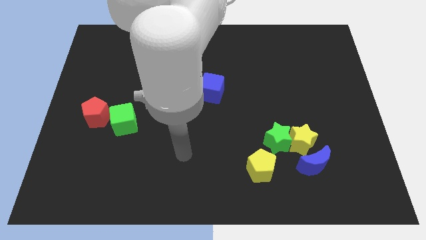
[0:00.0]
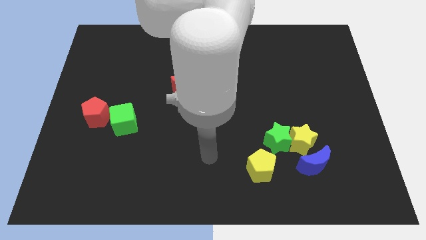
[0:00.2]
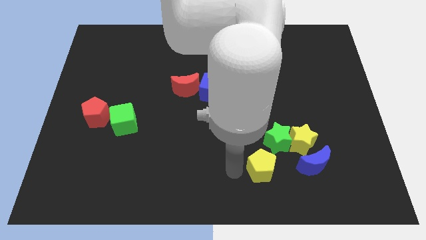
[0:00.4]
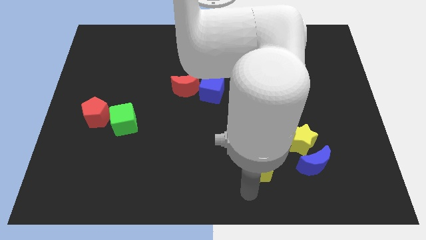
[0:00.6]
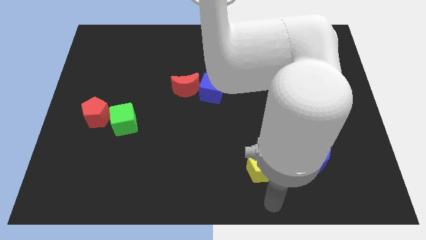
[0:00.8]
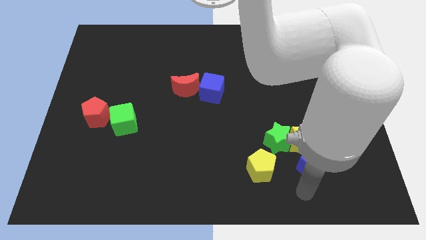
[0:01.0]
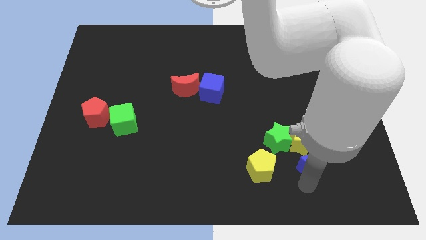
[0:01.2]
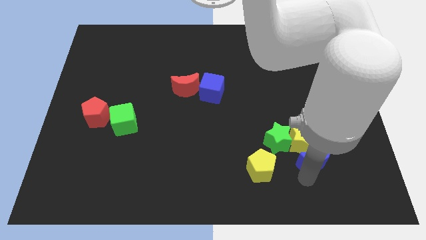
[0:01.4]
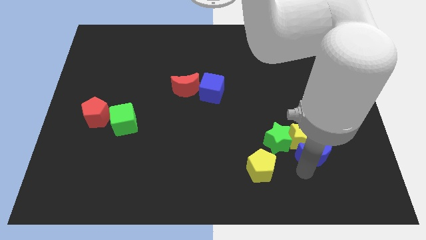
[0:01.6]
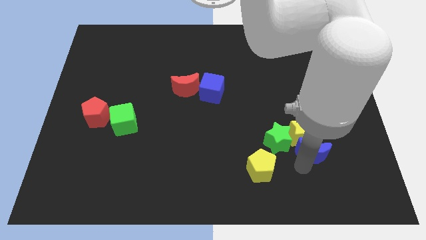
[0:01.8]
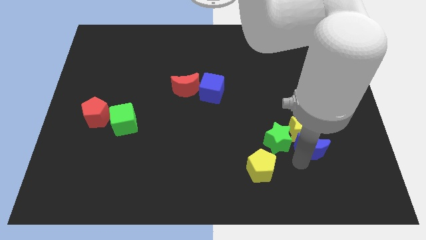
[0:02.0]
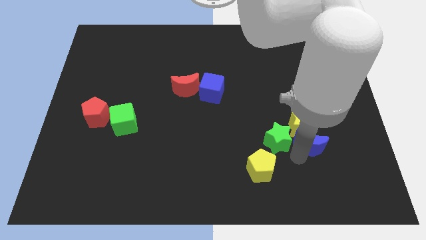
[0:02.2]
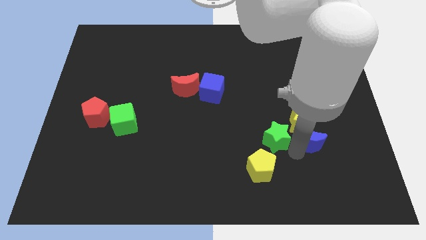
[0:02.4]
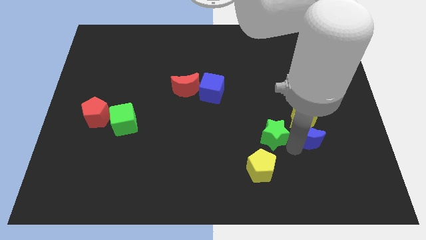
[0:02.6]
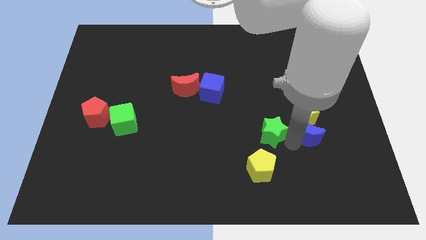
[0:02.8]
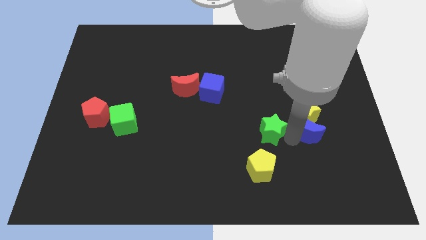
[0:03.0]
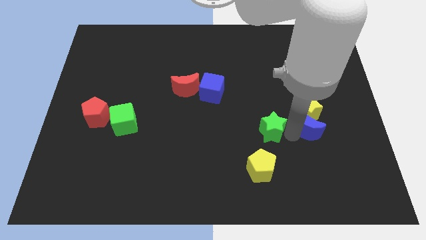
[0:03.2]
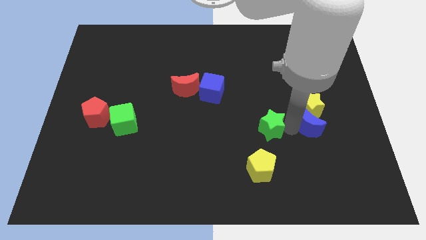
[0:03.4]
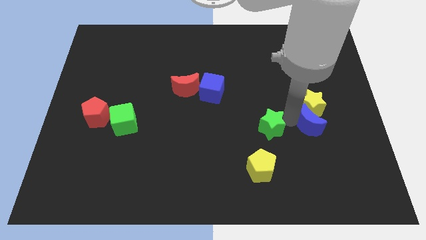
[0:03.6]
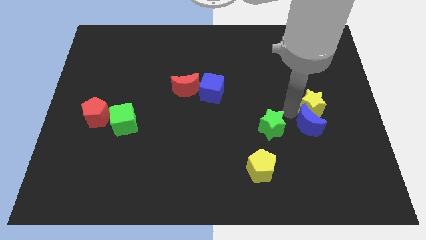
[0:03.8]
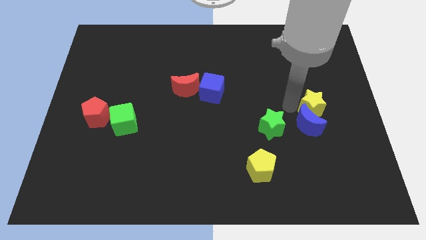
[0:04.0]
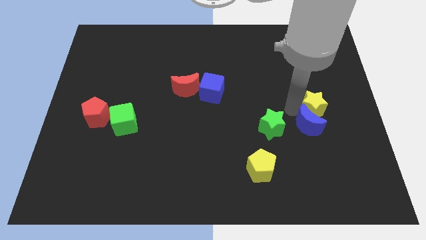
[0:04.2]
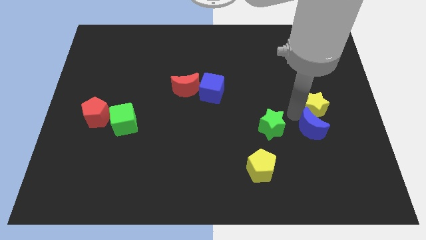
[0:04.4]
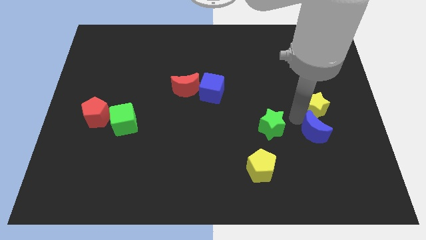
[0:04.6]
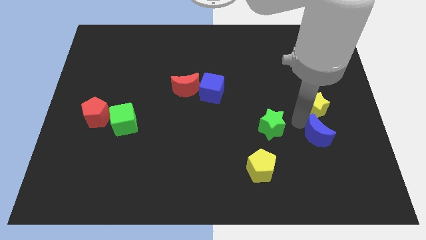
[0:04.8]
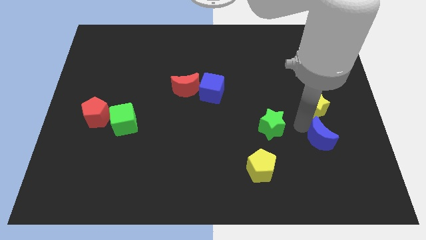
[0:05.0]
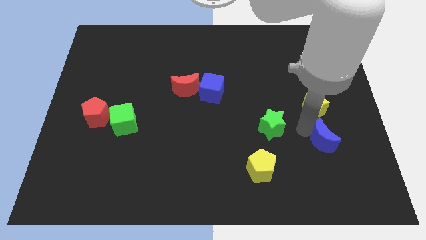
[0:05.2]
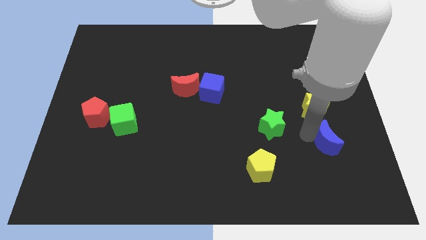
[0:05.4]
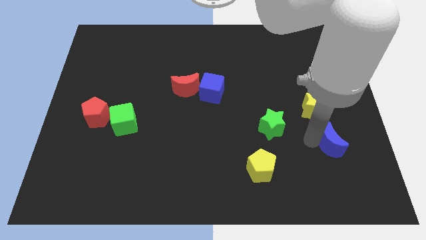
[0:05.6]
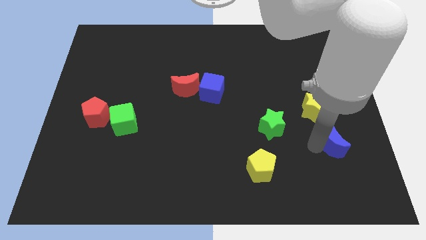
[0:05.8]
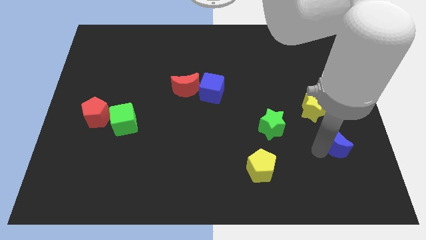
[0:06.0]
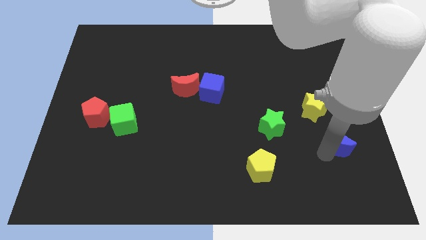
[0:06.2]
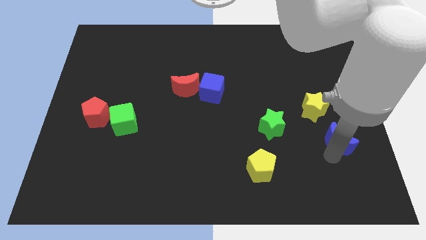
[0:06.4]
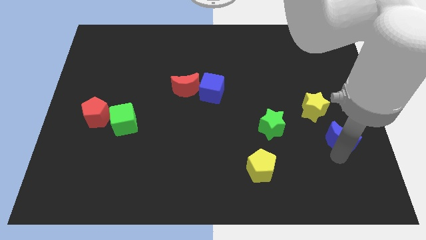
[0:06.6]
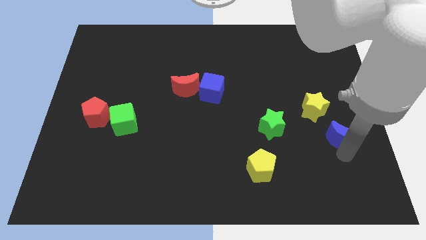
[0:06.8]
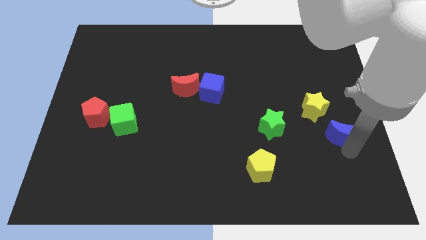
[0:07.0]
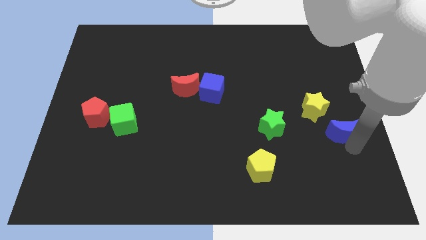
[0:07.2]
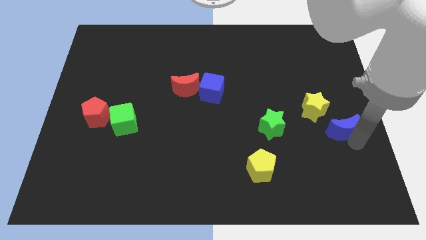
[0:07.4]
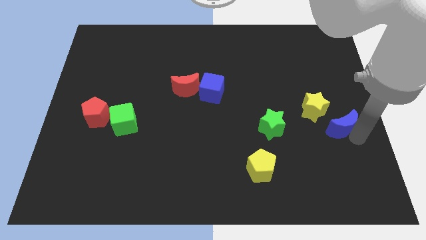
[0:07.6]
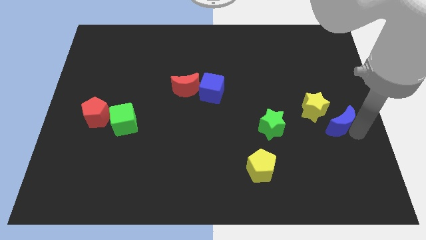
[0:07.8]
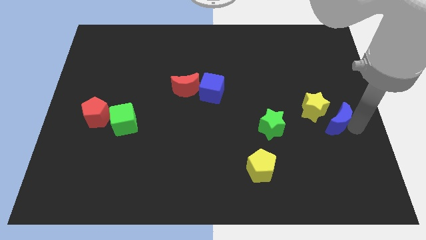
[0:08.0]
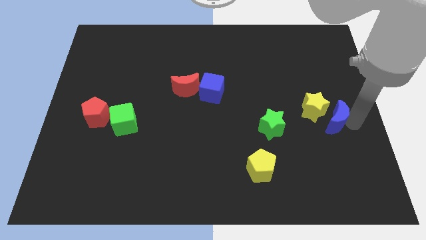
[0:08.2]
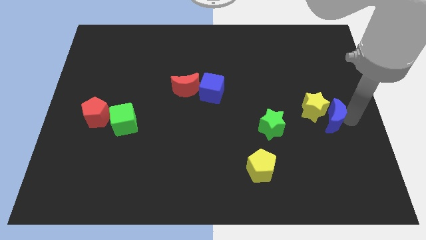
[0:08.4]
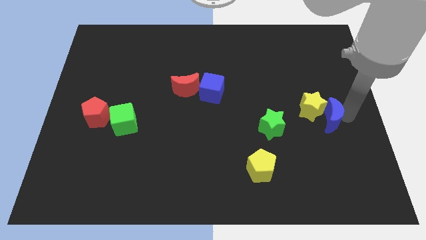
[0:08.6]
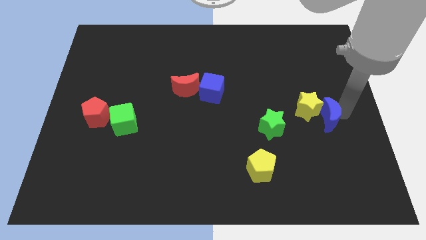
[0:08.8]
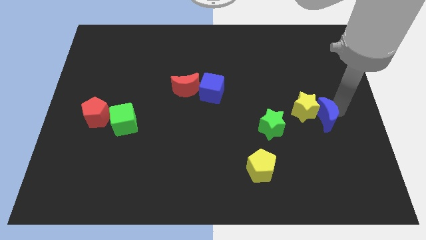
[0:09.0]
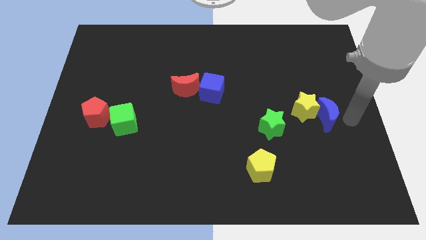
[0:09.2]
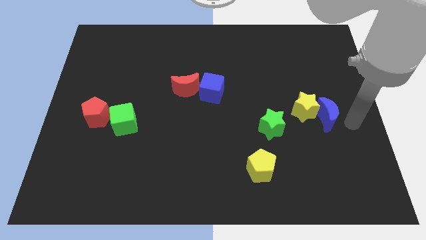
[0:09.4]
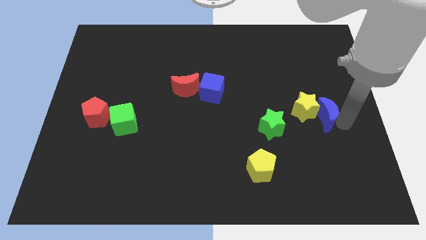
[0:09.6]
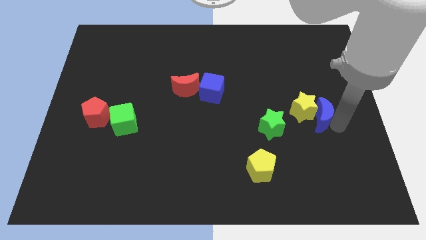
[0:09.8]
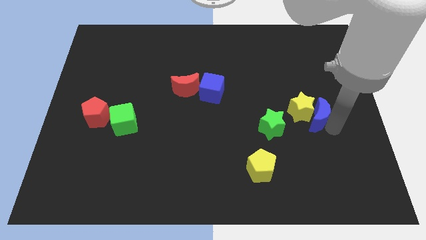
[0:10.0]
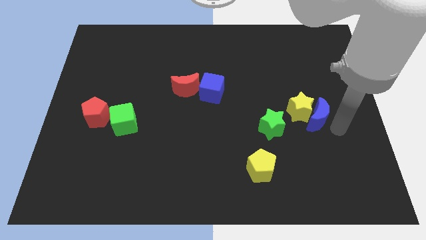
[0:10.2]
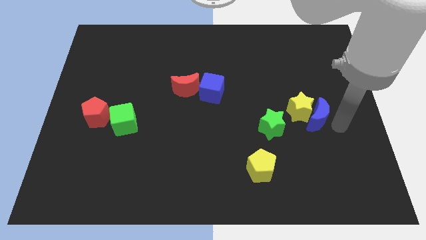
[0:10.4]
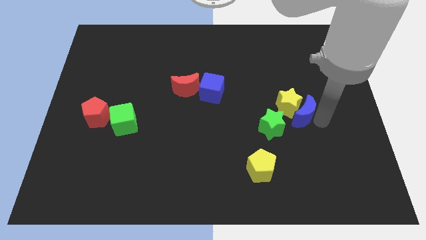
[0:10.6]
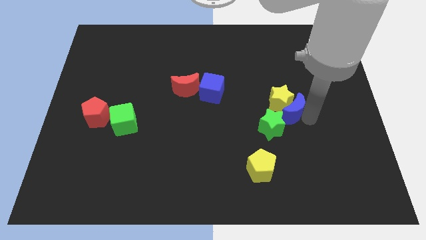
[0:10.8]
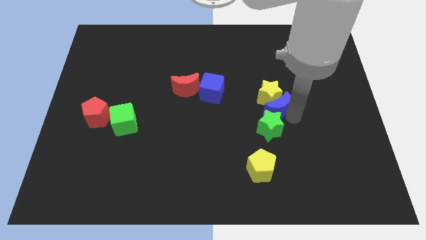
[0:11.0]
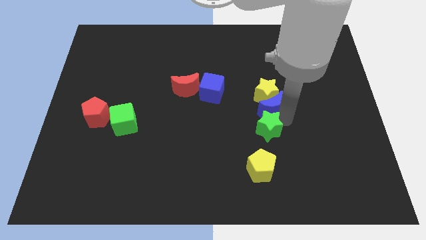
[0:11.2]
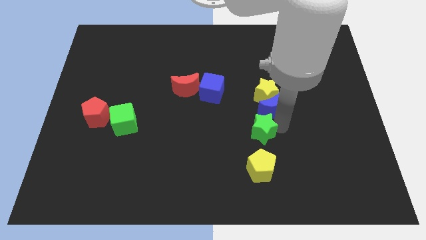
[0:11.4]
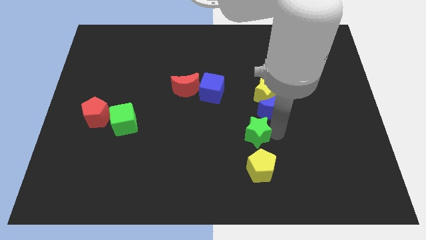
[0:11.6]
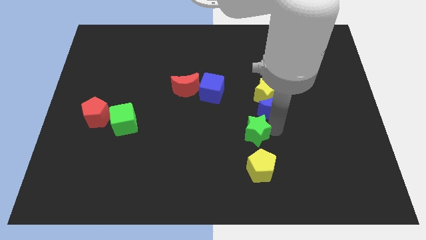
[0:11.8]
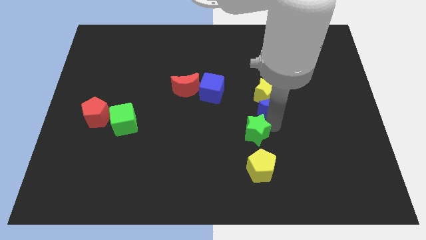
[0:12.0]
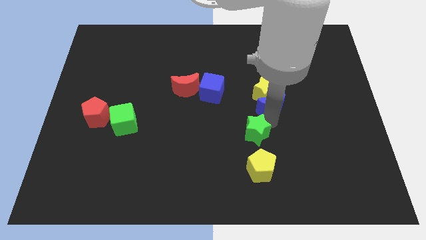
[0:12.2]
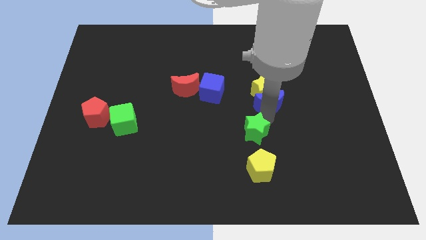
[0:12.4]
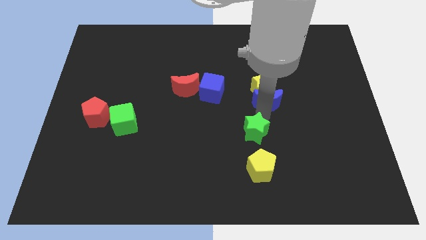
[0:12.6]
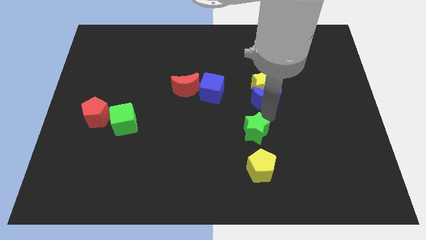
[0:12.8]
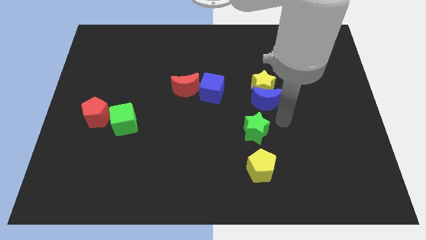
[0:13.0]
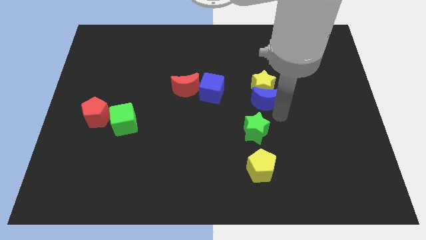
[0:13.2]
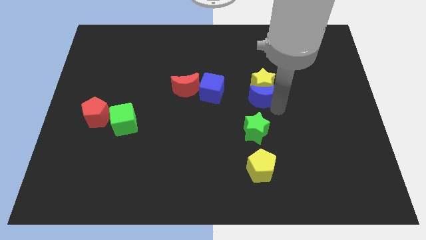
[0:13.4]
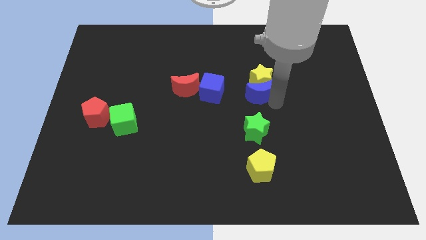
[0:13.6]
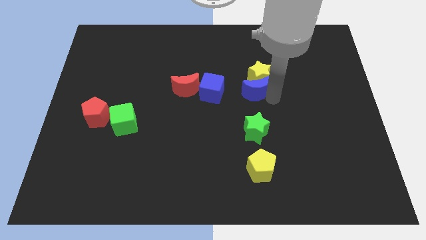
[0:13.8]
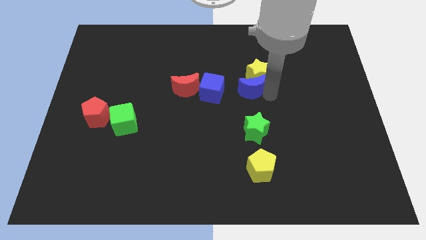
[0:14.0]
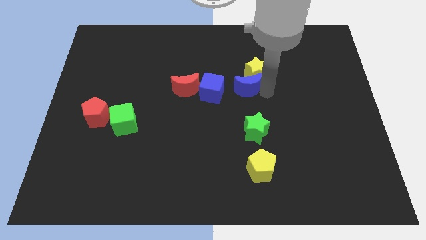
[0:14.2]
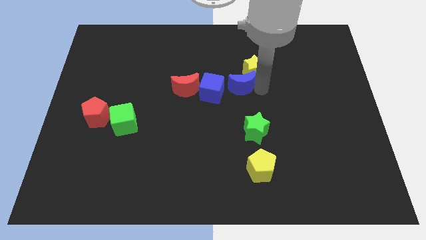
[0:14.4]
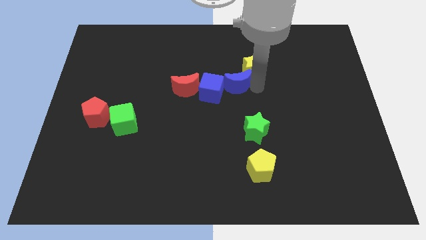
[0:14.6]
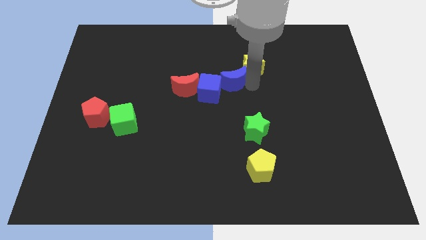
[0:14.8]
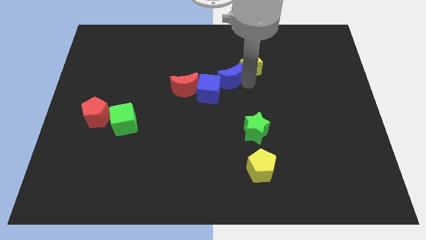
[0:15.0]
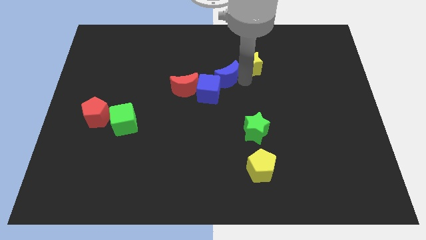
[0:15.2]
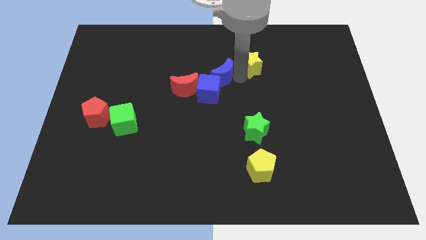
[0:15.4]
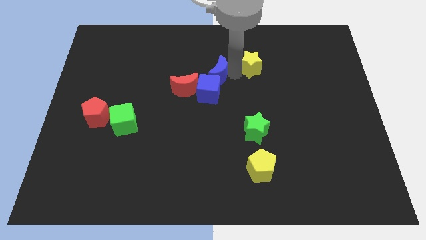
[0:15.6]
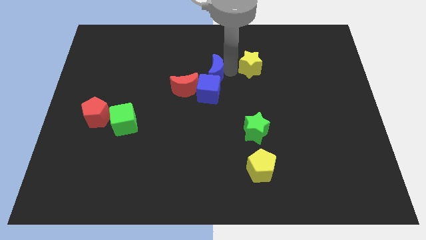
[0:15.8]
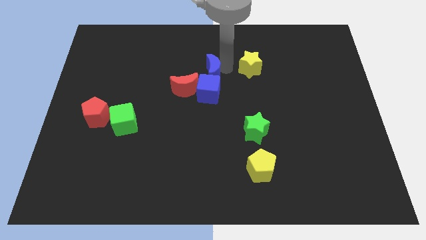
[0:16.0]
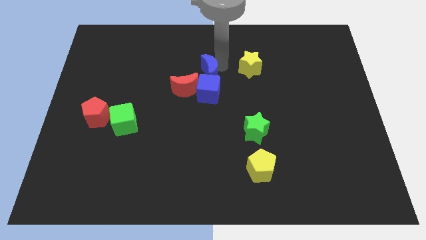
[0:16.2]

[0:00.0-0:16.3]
push the blue moon to the top left of the blue cube
